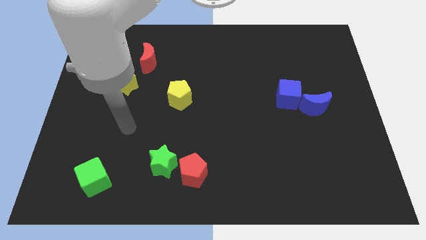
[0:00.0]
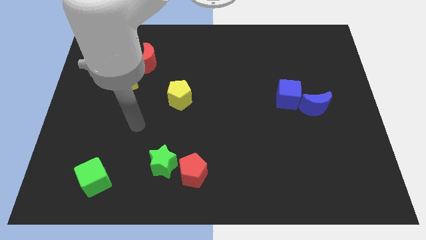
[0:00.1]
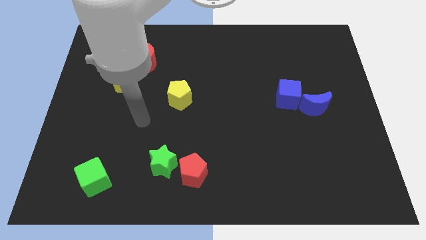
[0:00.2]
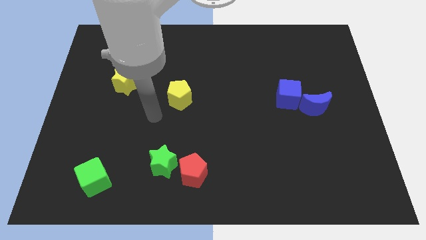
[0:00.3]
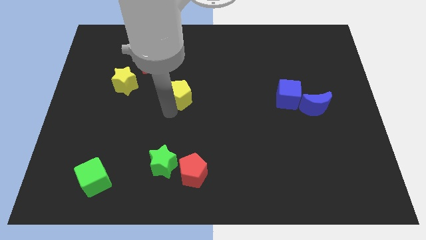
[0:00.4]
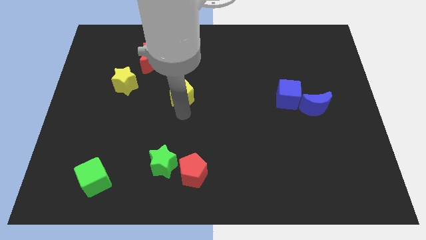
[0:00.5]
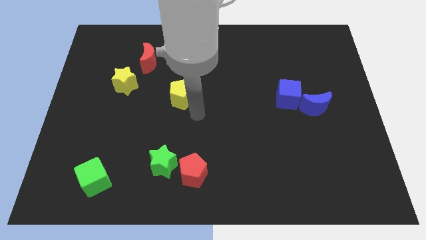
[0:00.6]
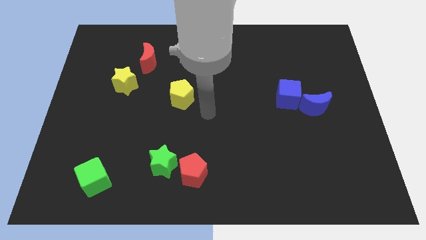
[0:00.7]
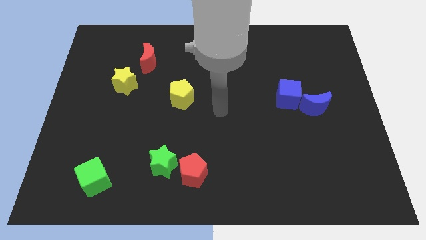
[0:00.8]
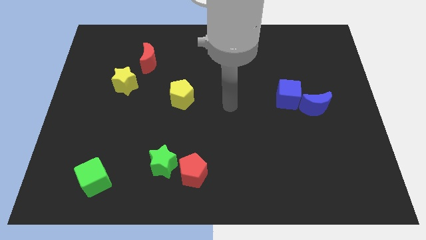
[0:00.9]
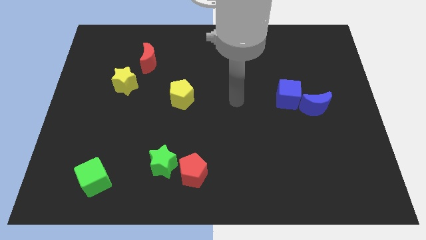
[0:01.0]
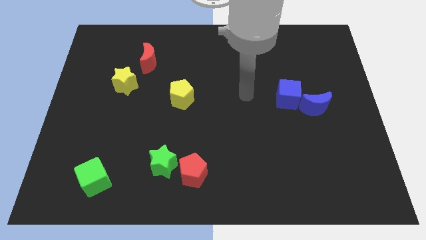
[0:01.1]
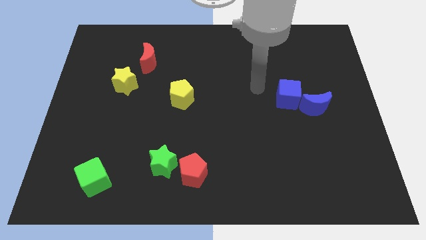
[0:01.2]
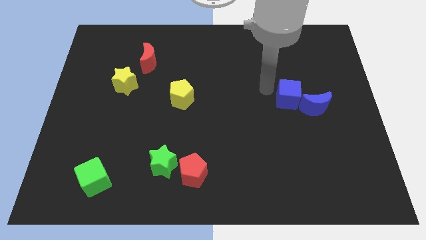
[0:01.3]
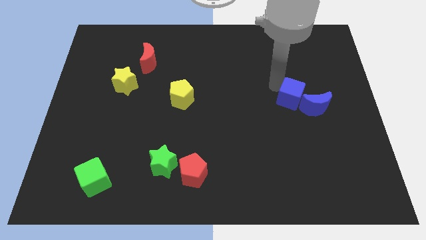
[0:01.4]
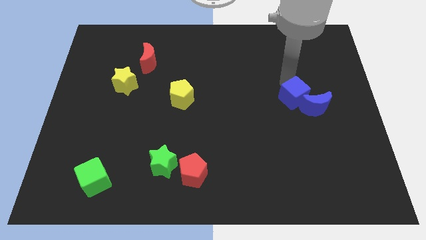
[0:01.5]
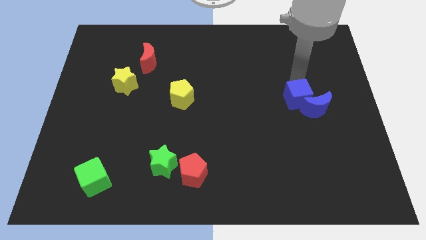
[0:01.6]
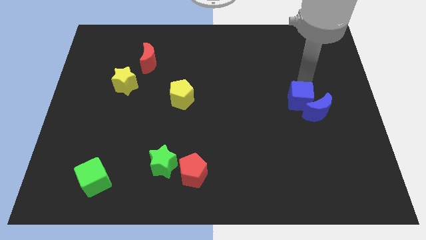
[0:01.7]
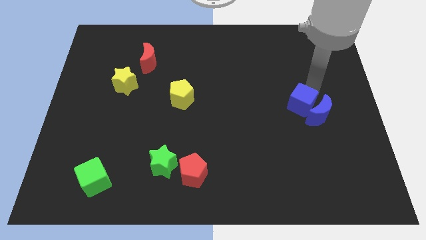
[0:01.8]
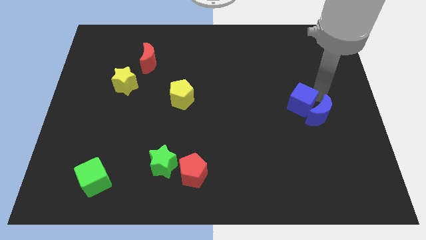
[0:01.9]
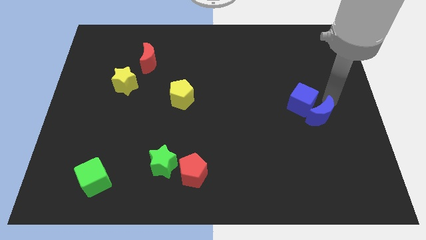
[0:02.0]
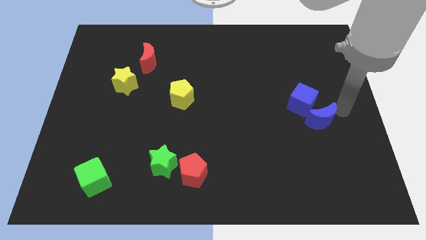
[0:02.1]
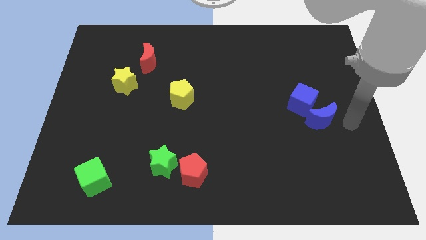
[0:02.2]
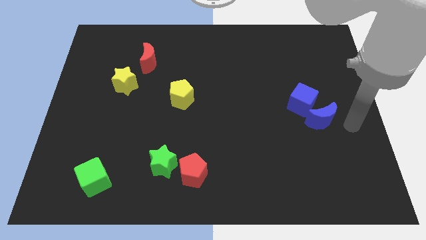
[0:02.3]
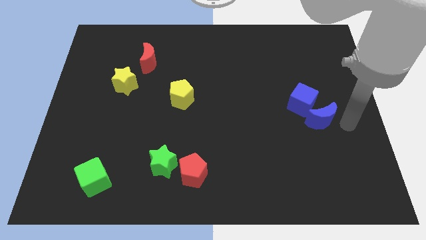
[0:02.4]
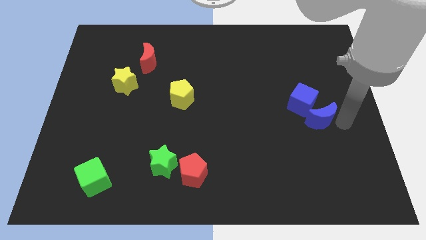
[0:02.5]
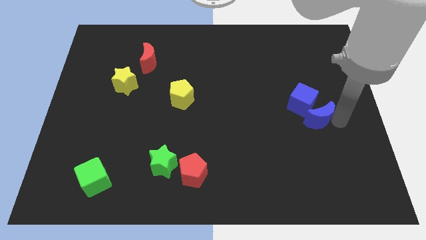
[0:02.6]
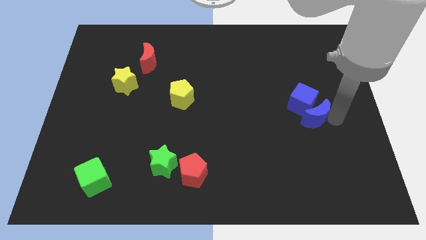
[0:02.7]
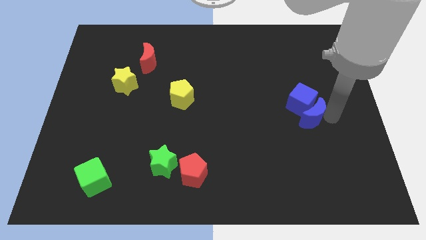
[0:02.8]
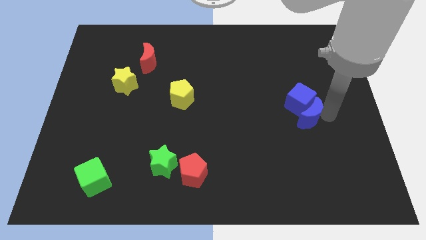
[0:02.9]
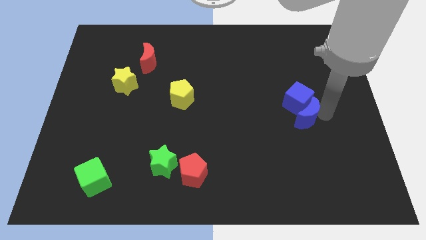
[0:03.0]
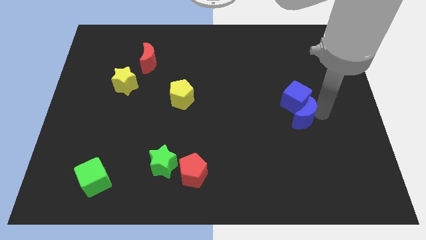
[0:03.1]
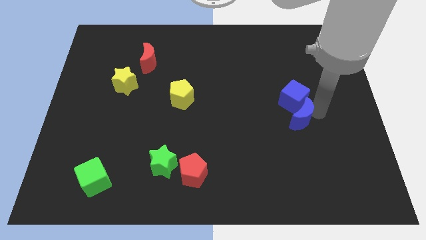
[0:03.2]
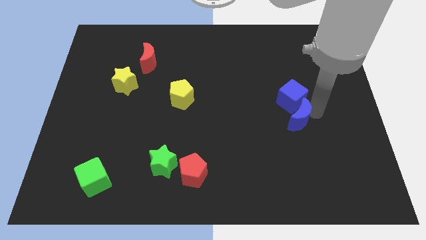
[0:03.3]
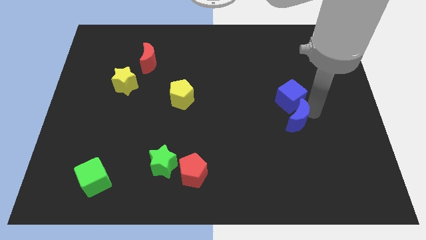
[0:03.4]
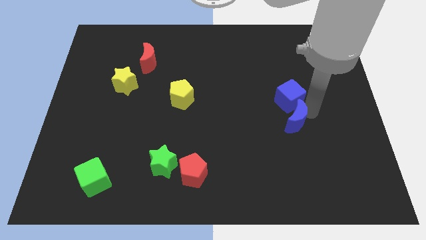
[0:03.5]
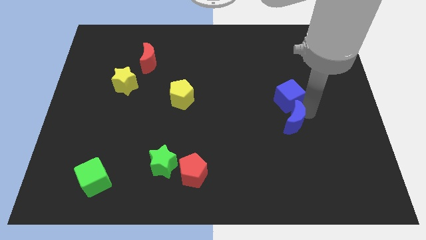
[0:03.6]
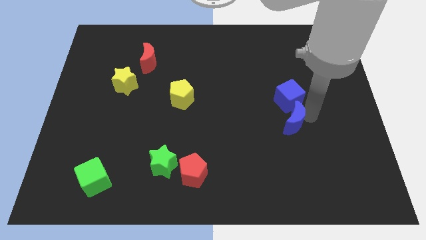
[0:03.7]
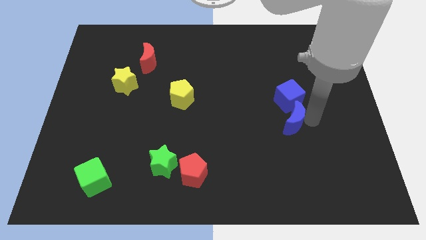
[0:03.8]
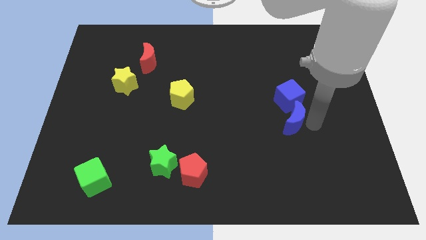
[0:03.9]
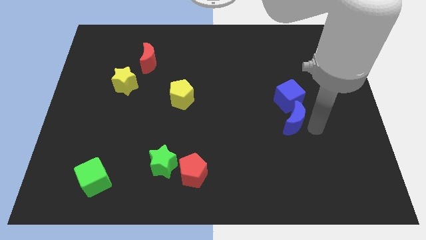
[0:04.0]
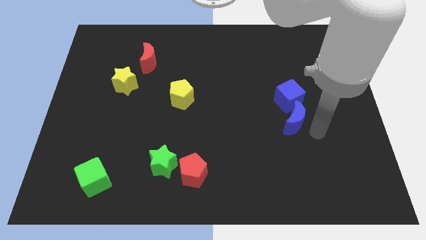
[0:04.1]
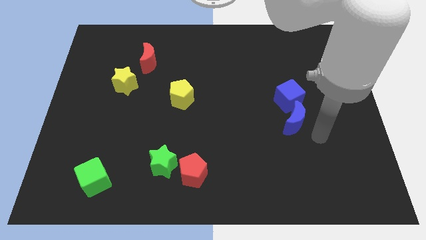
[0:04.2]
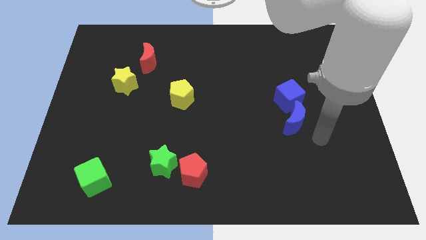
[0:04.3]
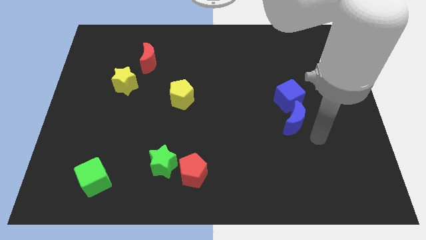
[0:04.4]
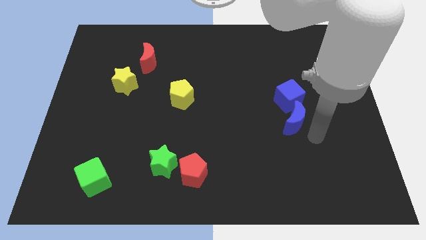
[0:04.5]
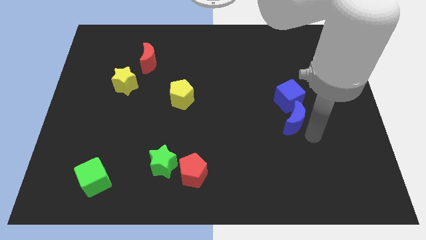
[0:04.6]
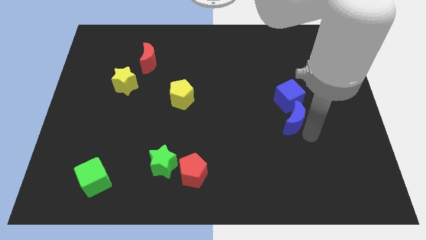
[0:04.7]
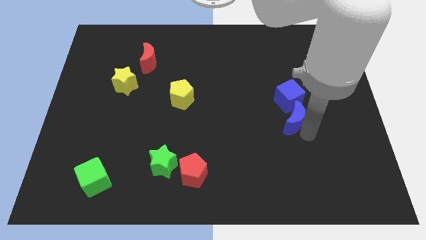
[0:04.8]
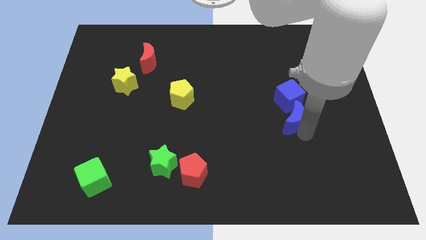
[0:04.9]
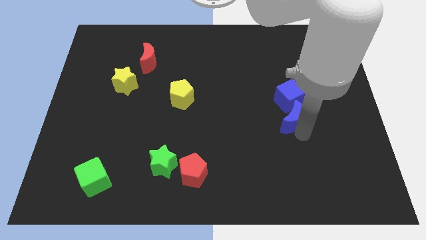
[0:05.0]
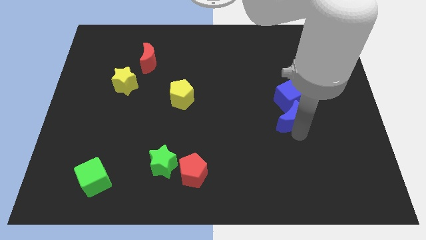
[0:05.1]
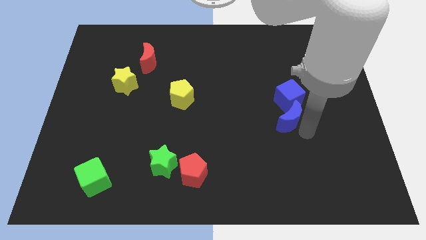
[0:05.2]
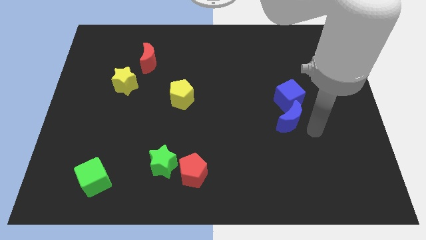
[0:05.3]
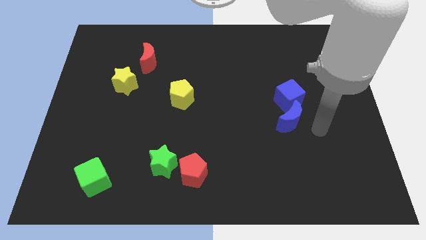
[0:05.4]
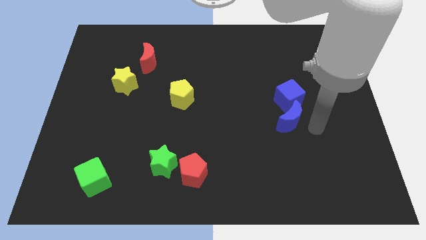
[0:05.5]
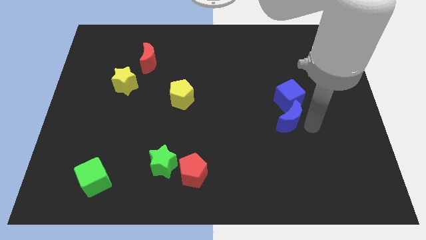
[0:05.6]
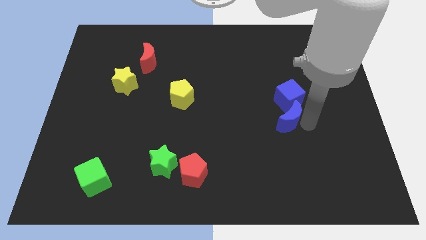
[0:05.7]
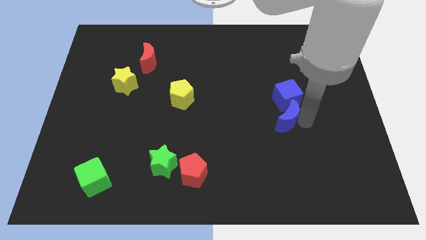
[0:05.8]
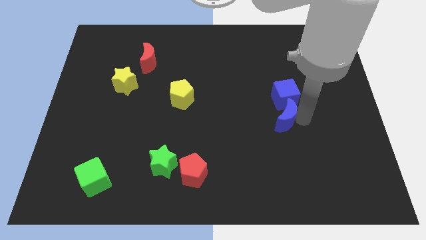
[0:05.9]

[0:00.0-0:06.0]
push the blue moon left a little

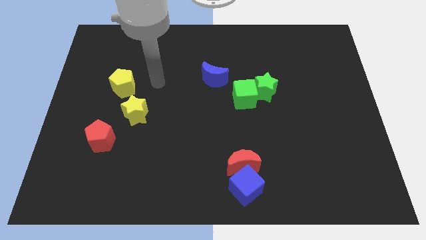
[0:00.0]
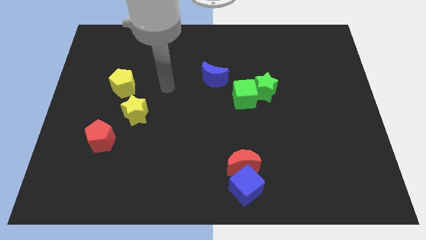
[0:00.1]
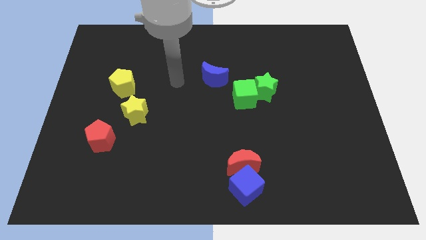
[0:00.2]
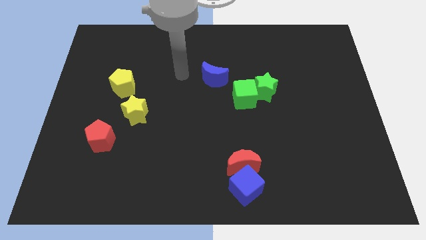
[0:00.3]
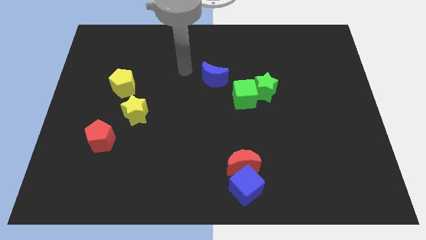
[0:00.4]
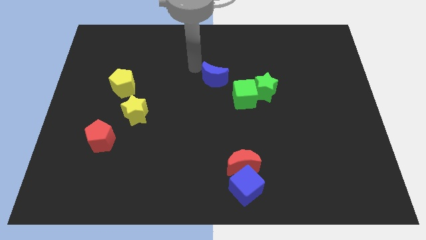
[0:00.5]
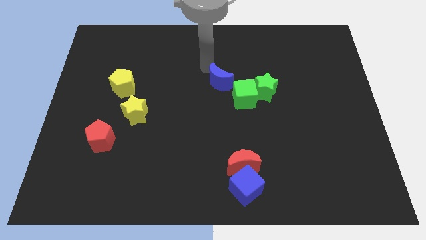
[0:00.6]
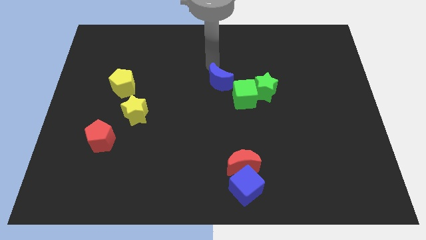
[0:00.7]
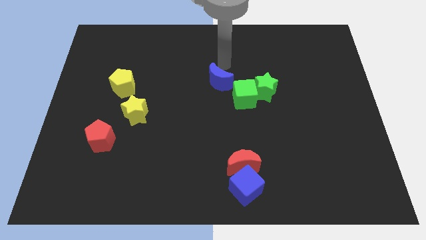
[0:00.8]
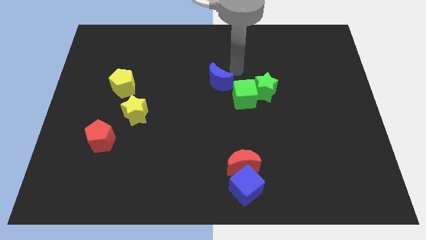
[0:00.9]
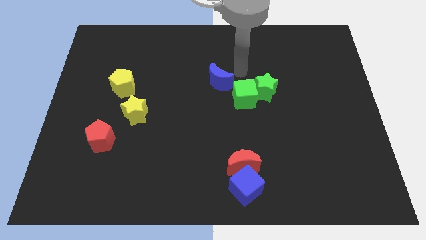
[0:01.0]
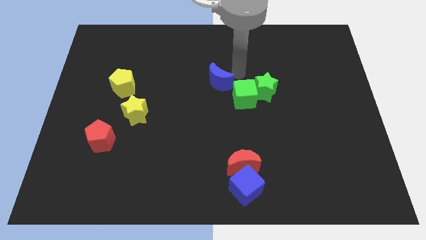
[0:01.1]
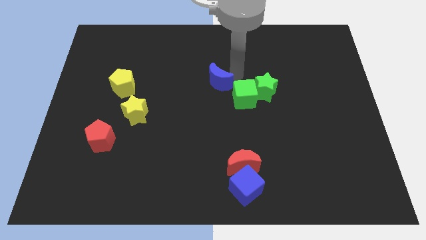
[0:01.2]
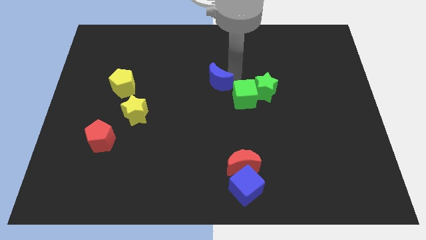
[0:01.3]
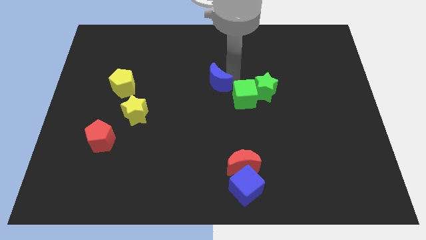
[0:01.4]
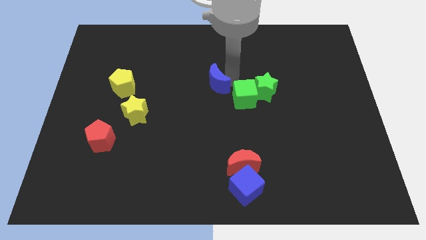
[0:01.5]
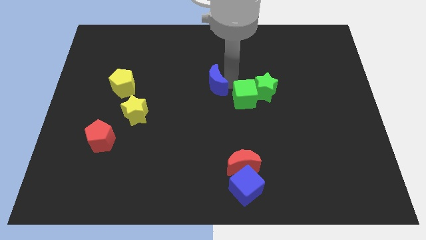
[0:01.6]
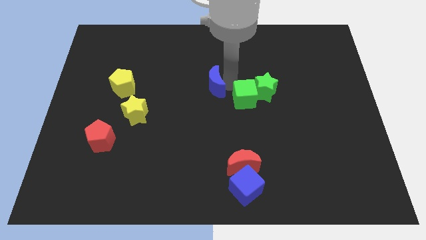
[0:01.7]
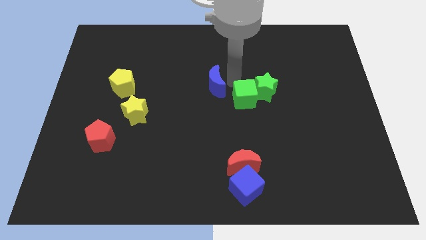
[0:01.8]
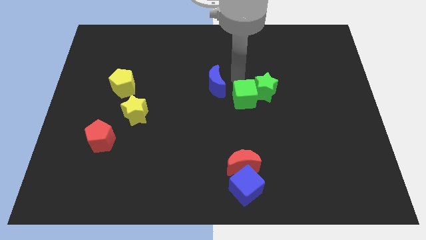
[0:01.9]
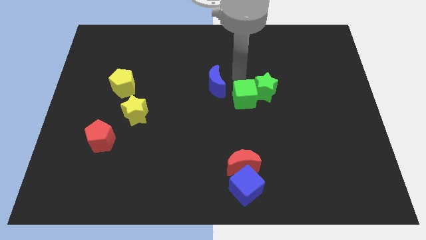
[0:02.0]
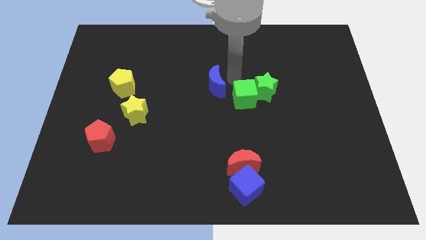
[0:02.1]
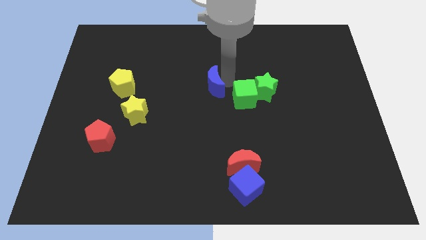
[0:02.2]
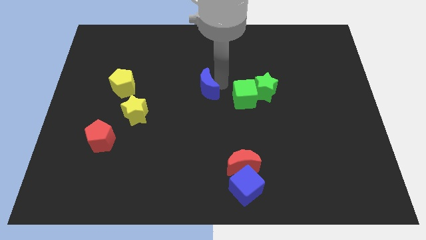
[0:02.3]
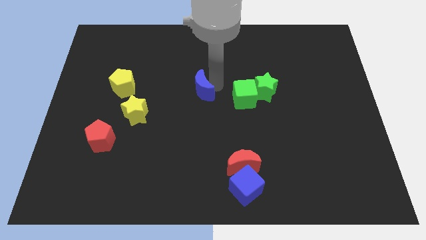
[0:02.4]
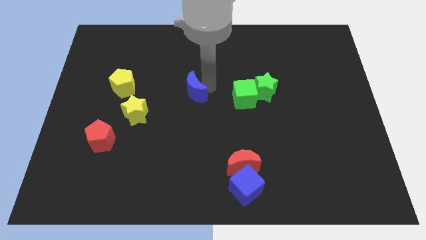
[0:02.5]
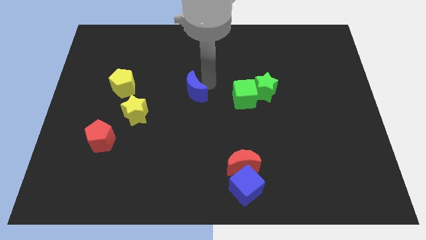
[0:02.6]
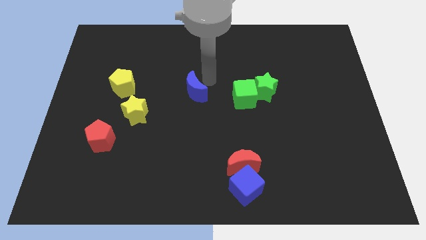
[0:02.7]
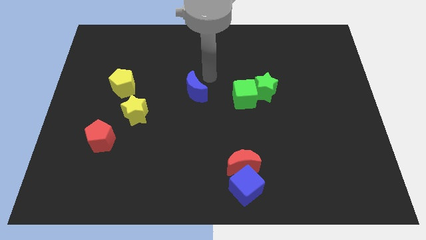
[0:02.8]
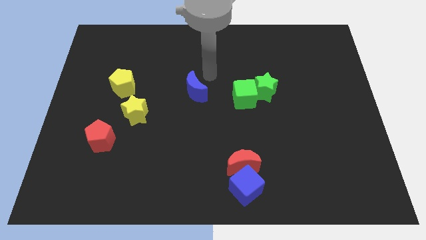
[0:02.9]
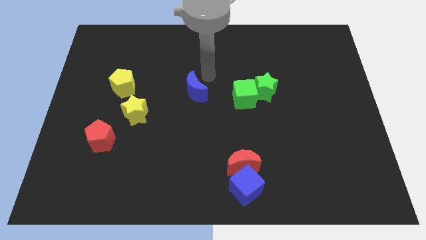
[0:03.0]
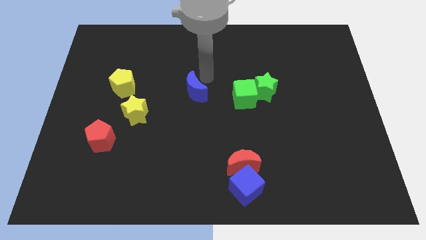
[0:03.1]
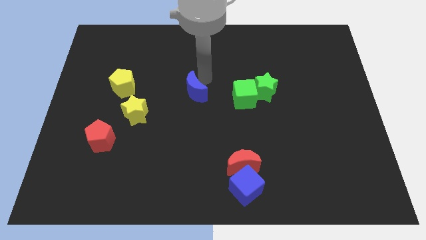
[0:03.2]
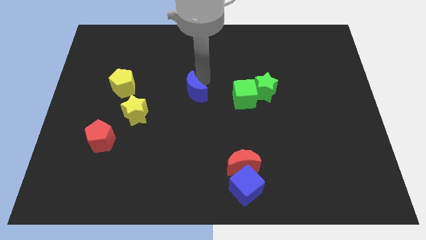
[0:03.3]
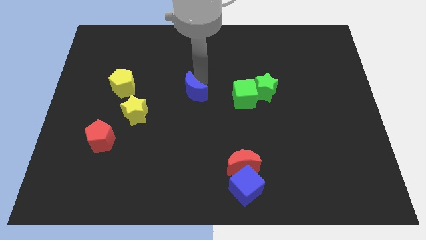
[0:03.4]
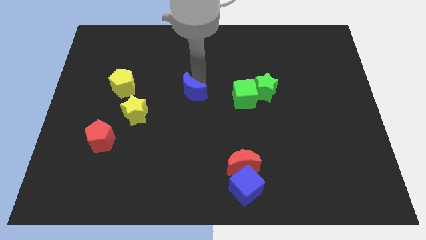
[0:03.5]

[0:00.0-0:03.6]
slightly move the blue moon down and to the left
